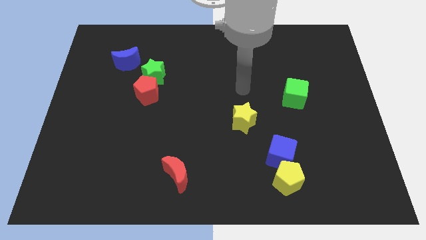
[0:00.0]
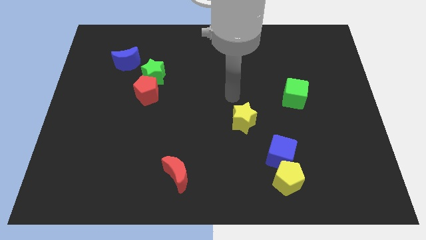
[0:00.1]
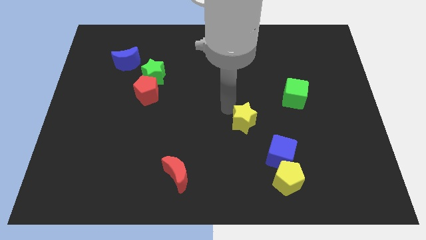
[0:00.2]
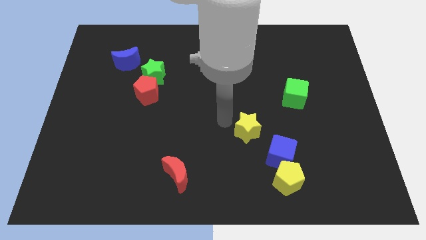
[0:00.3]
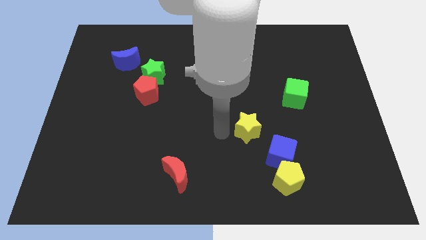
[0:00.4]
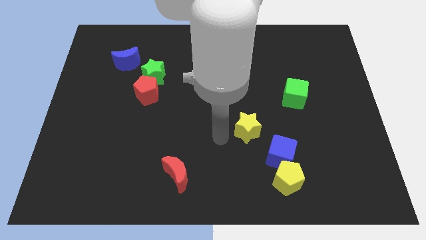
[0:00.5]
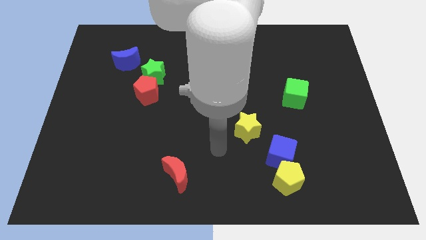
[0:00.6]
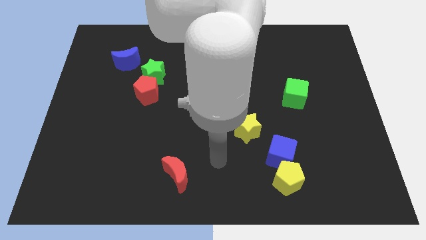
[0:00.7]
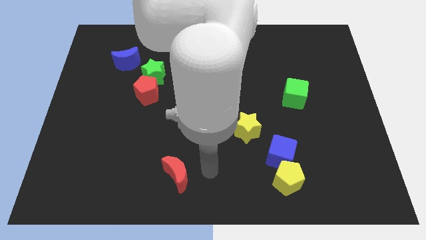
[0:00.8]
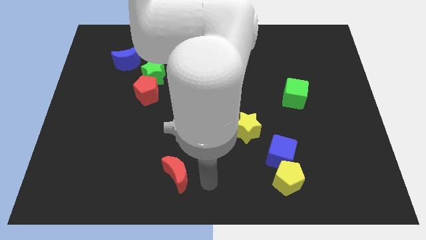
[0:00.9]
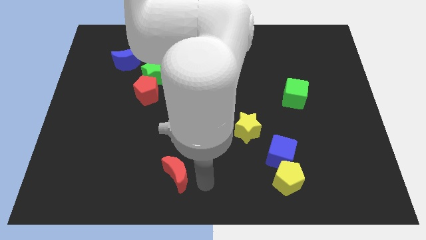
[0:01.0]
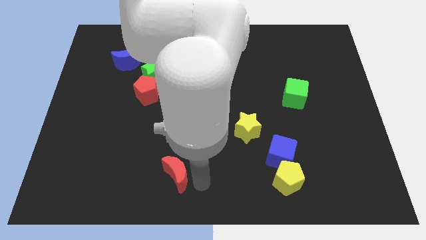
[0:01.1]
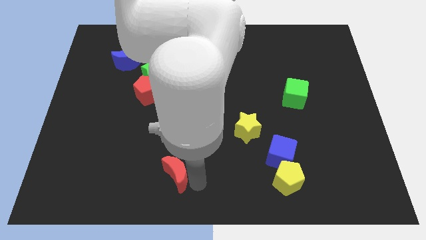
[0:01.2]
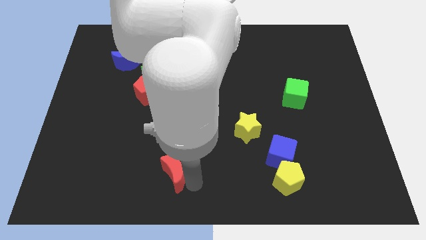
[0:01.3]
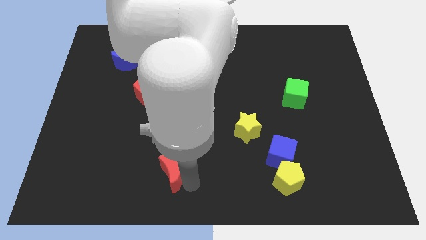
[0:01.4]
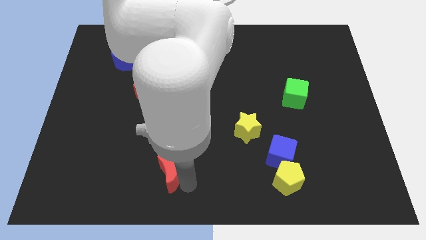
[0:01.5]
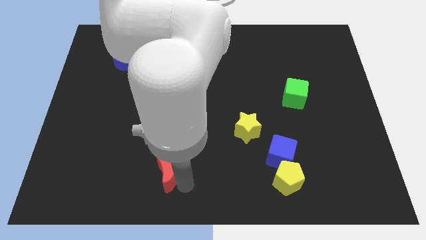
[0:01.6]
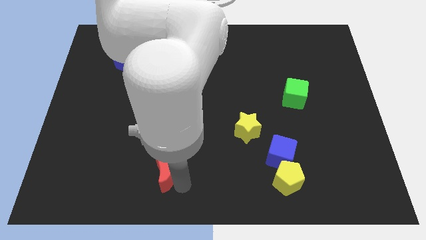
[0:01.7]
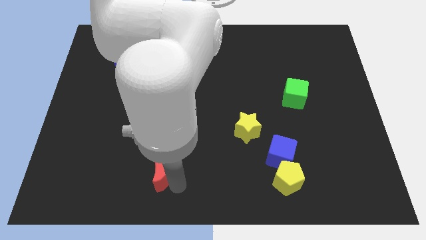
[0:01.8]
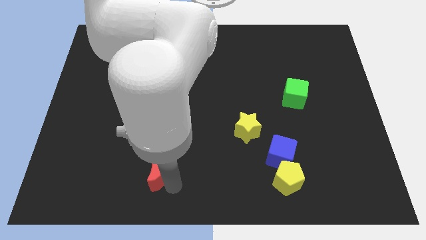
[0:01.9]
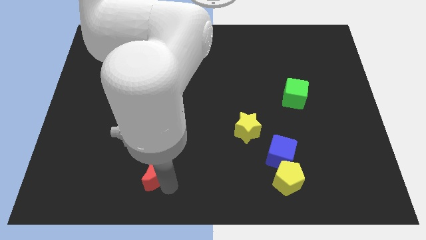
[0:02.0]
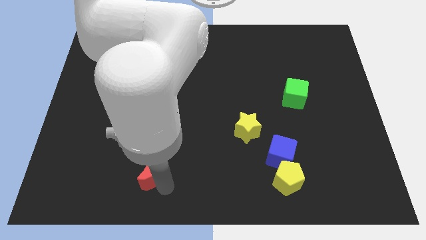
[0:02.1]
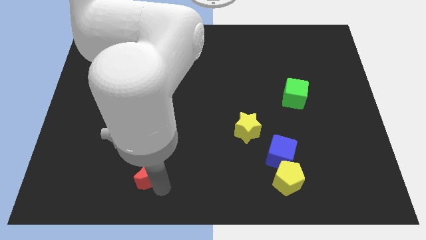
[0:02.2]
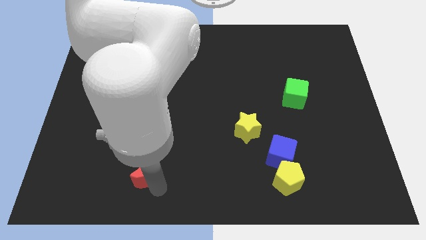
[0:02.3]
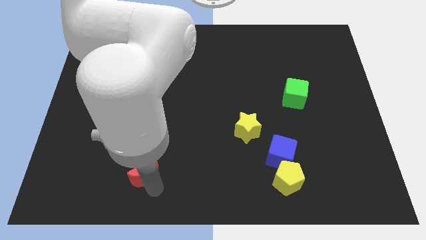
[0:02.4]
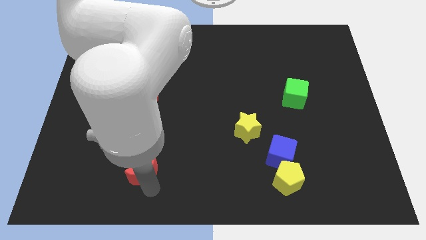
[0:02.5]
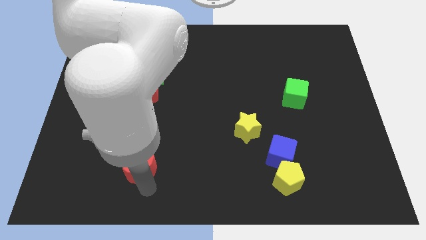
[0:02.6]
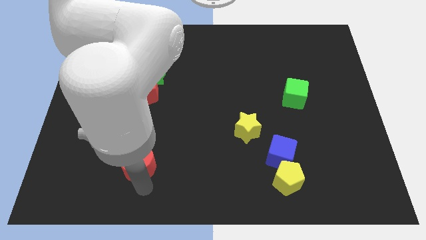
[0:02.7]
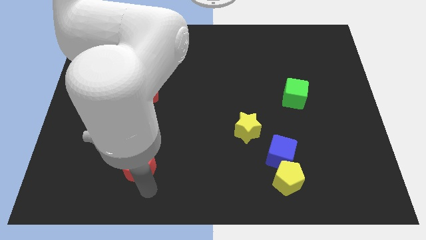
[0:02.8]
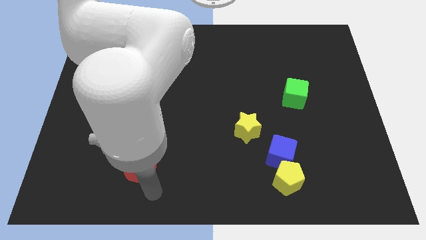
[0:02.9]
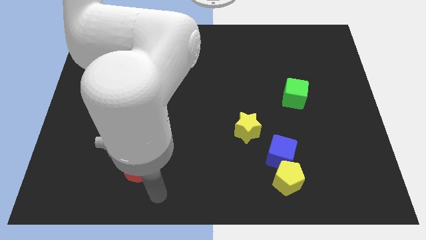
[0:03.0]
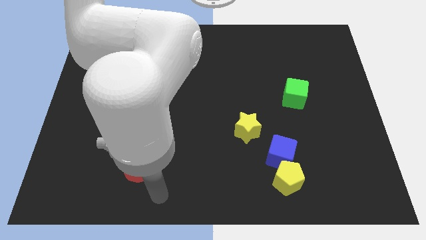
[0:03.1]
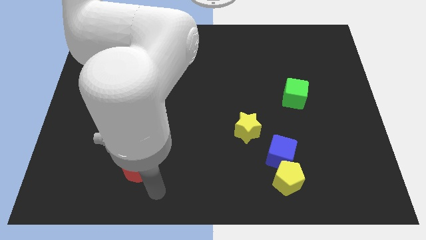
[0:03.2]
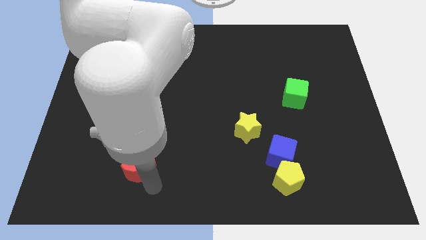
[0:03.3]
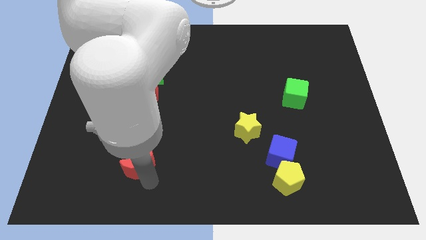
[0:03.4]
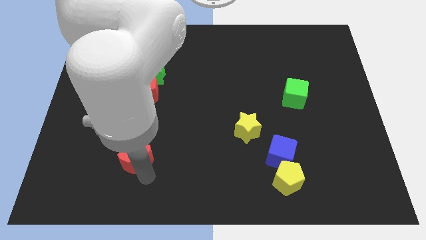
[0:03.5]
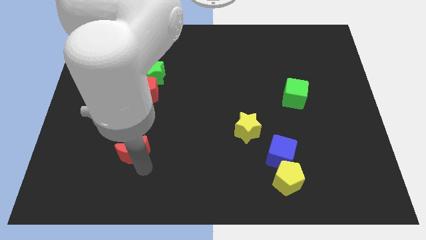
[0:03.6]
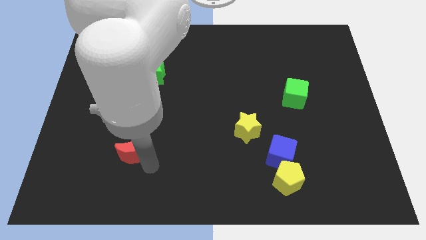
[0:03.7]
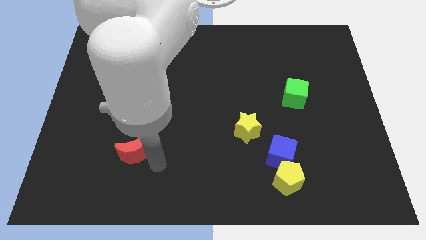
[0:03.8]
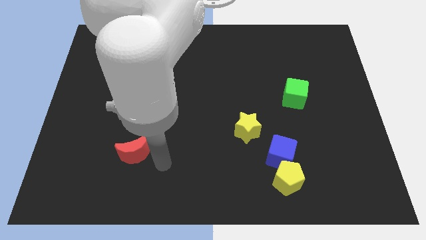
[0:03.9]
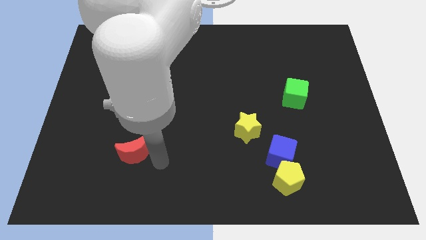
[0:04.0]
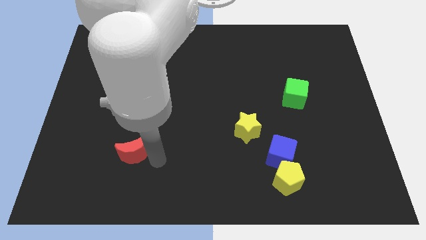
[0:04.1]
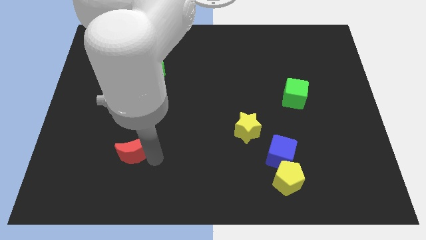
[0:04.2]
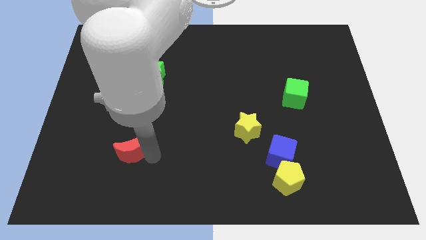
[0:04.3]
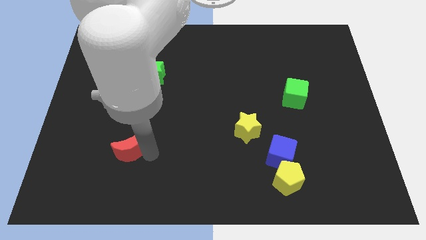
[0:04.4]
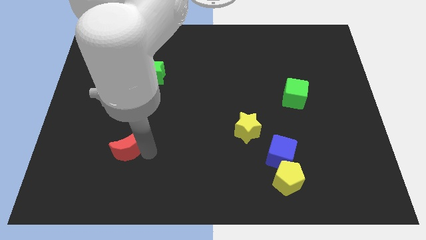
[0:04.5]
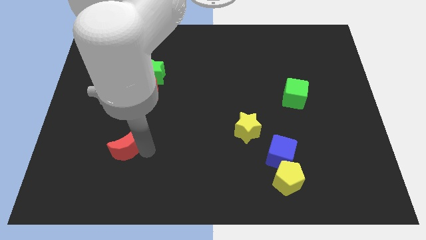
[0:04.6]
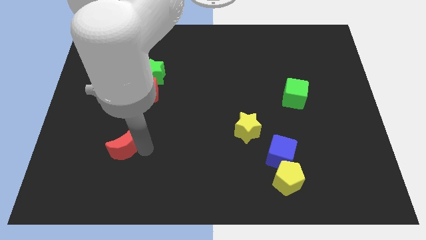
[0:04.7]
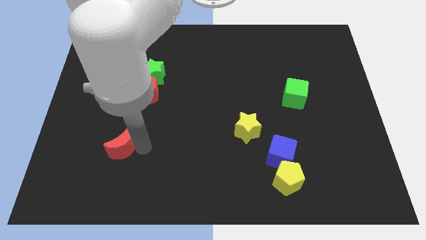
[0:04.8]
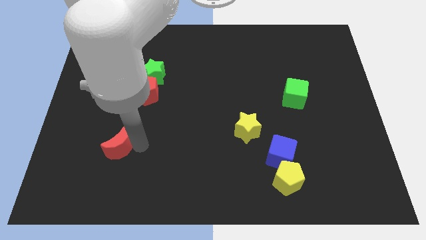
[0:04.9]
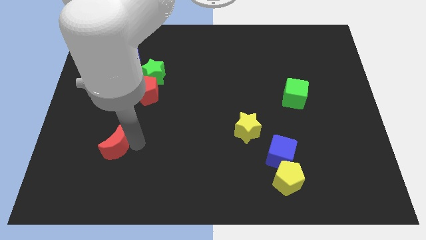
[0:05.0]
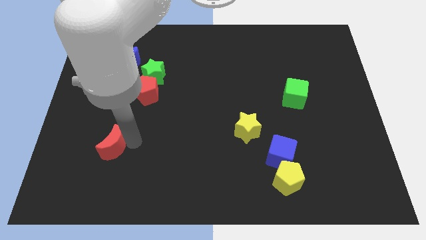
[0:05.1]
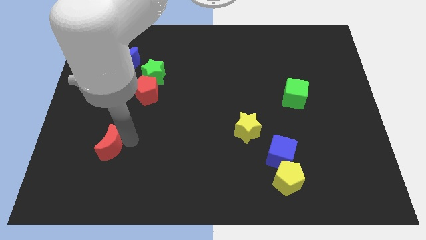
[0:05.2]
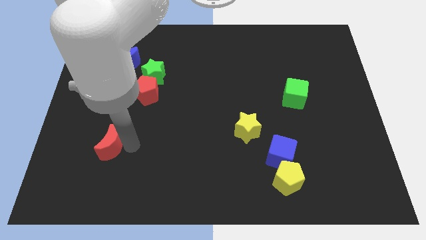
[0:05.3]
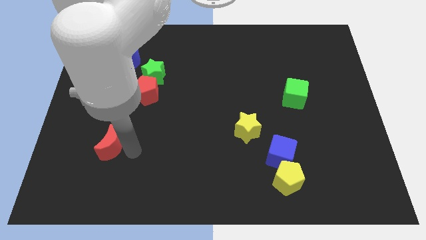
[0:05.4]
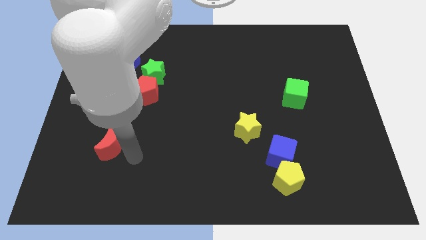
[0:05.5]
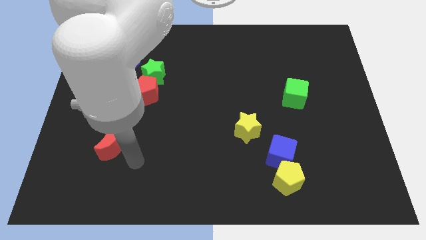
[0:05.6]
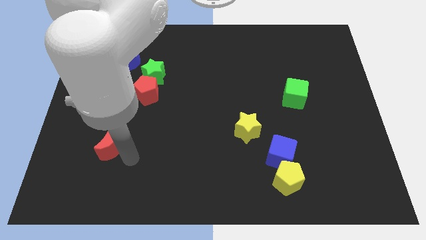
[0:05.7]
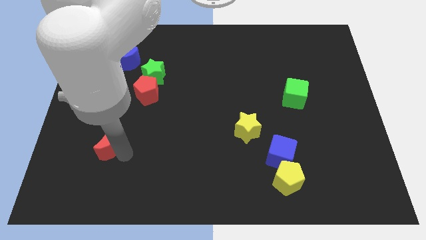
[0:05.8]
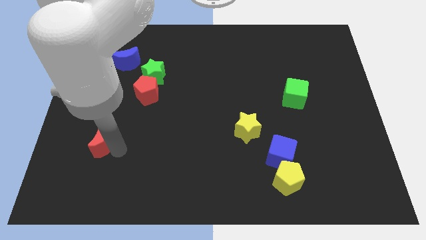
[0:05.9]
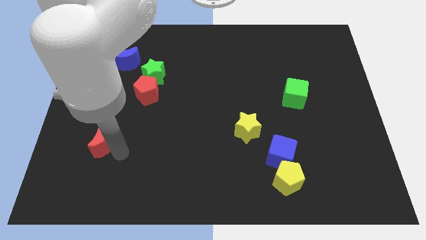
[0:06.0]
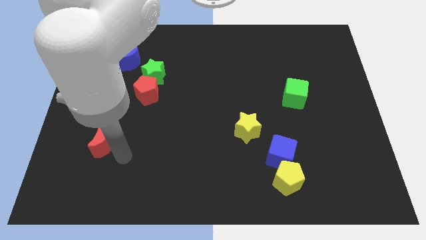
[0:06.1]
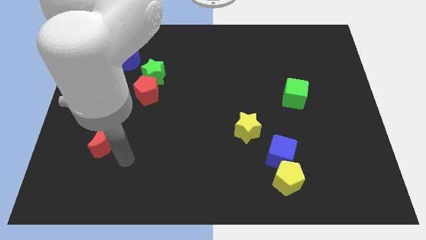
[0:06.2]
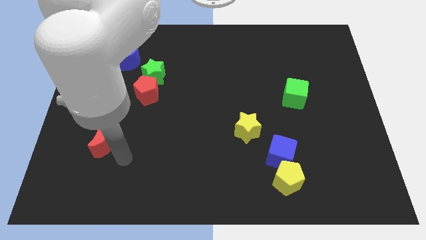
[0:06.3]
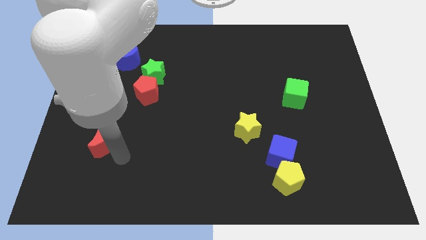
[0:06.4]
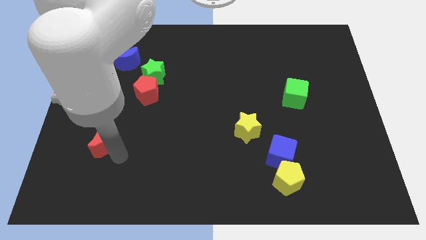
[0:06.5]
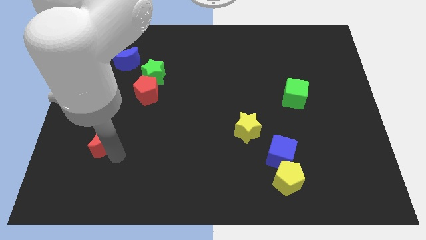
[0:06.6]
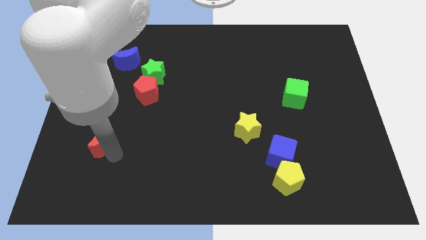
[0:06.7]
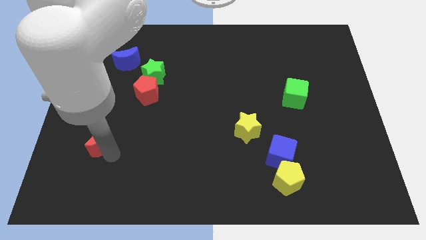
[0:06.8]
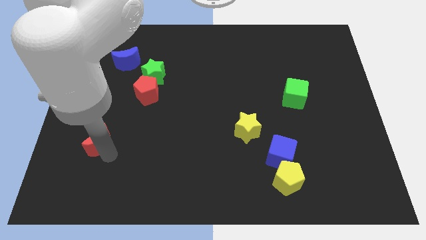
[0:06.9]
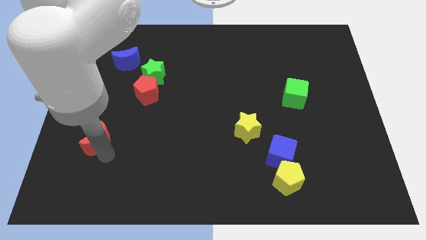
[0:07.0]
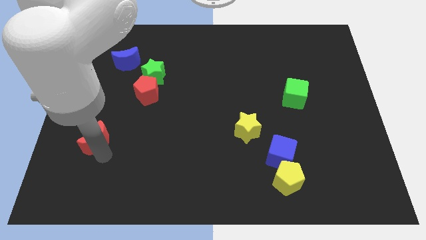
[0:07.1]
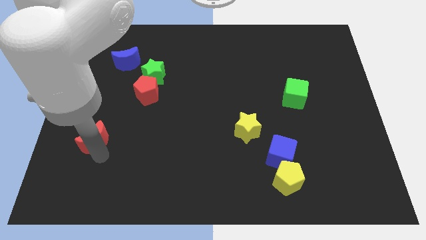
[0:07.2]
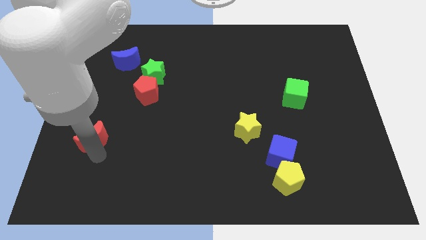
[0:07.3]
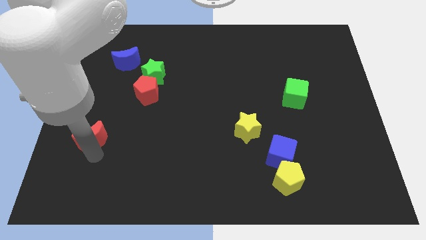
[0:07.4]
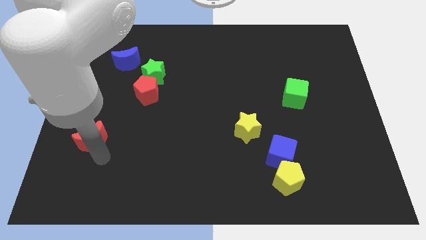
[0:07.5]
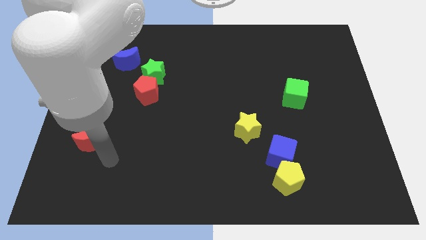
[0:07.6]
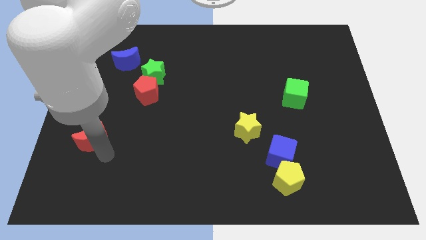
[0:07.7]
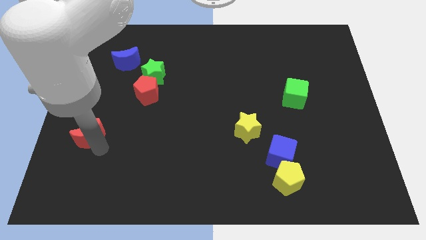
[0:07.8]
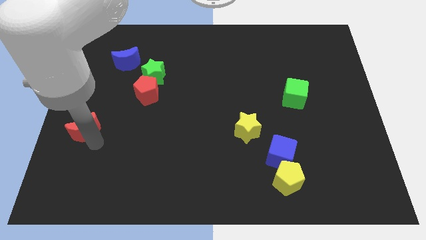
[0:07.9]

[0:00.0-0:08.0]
slide the red moon to the center left
